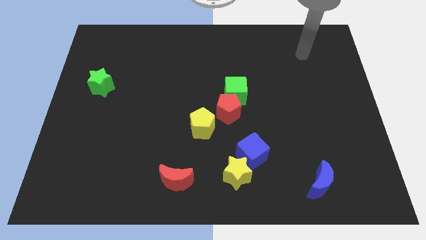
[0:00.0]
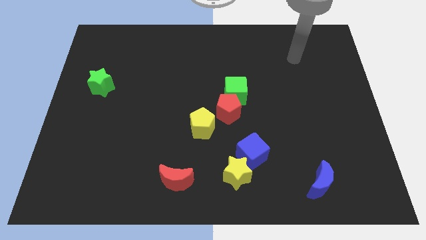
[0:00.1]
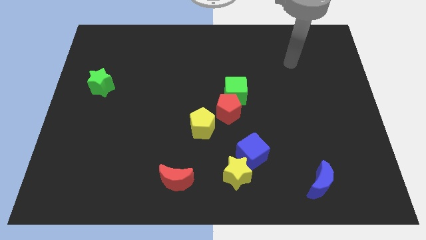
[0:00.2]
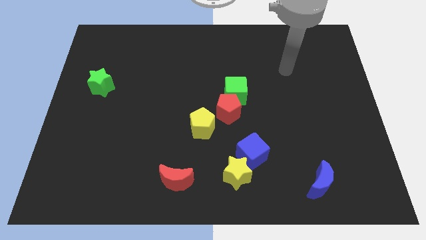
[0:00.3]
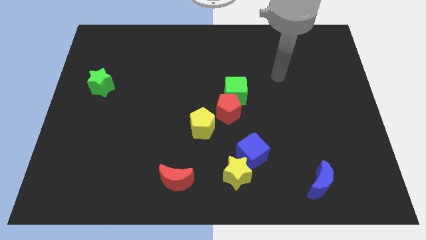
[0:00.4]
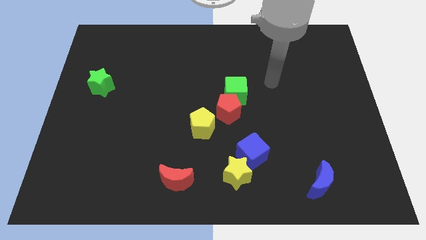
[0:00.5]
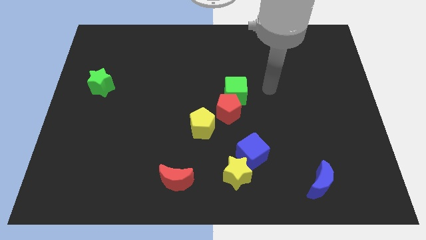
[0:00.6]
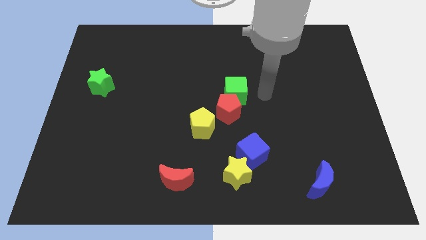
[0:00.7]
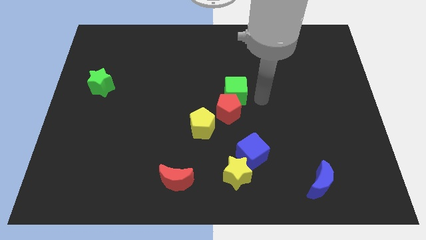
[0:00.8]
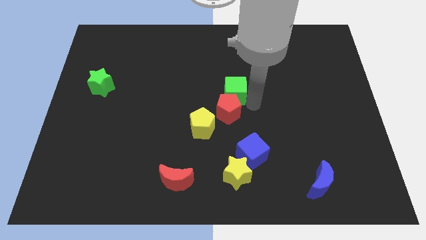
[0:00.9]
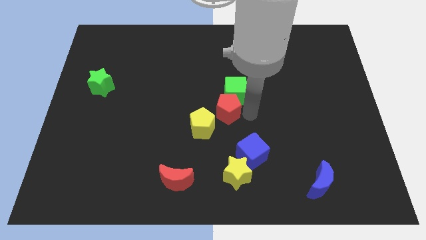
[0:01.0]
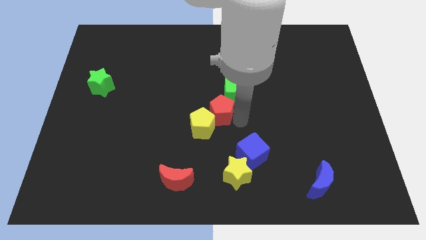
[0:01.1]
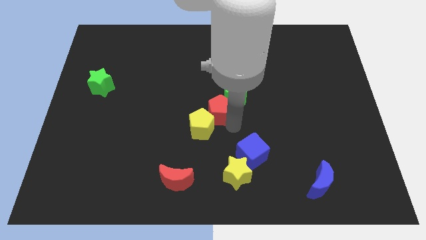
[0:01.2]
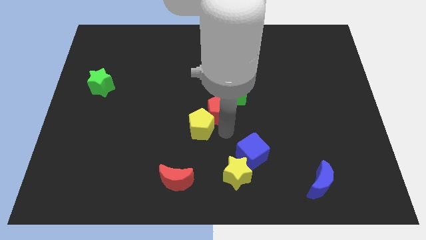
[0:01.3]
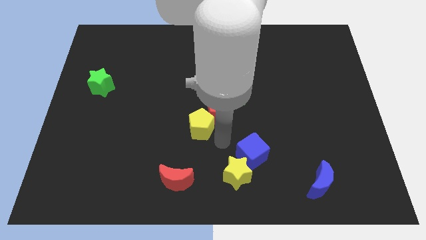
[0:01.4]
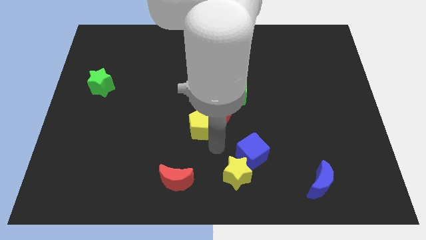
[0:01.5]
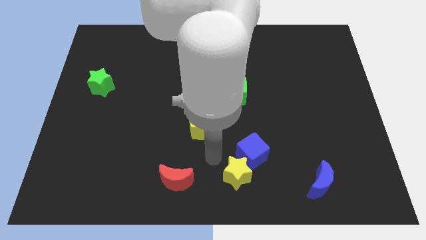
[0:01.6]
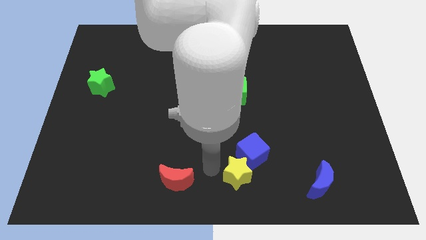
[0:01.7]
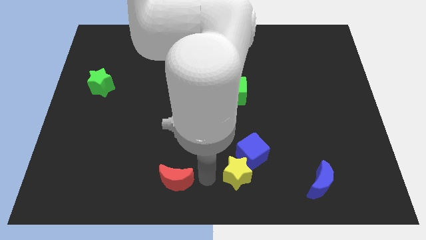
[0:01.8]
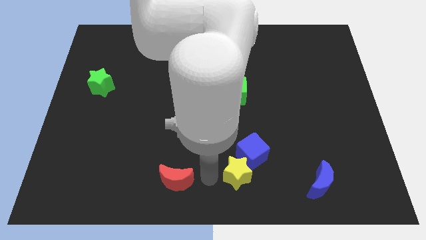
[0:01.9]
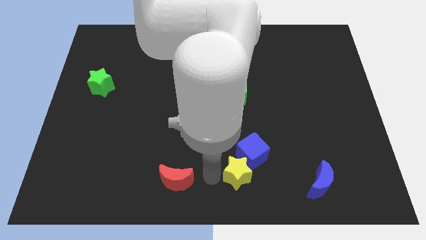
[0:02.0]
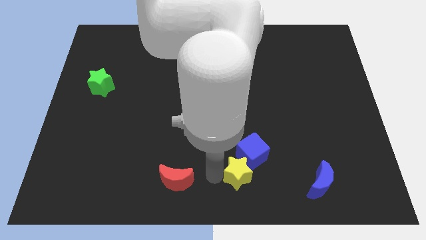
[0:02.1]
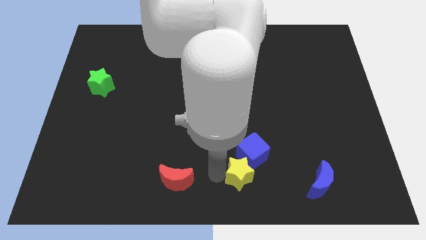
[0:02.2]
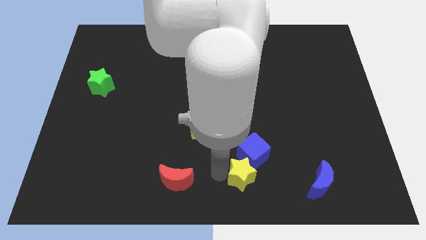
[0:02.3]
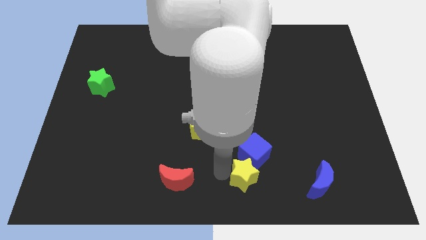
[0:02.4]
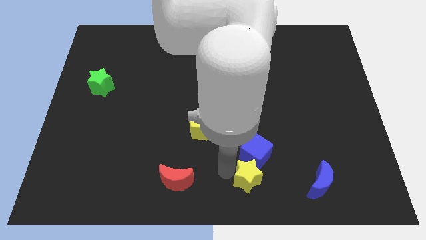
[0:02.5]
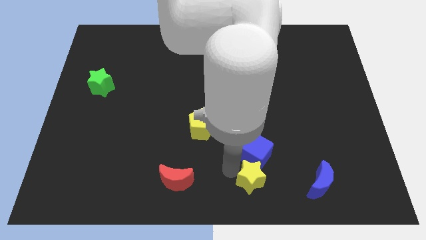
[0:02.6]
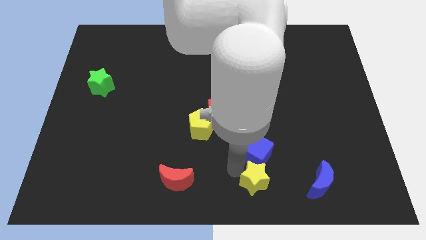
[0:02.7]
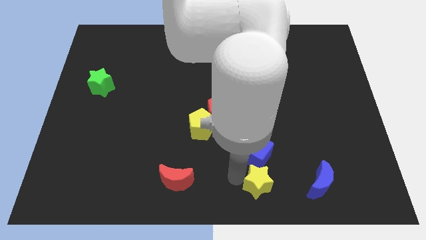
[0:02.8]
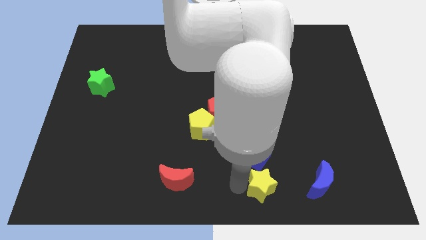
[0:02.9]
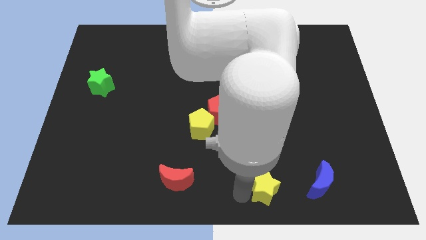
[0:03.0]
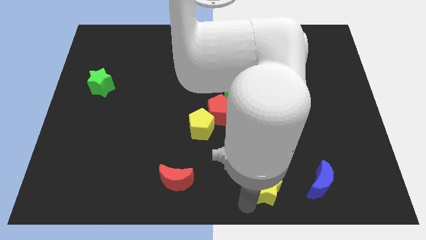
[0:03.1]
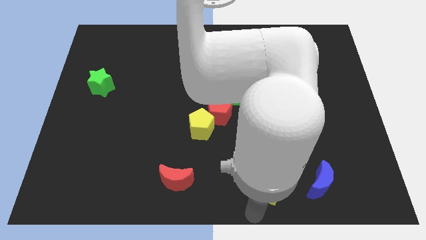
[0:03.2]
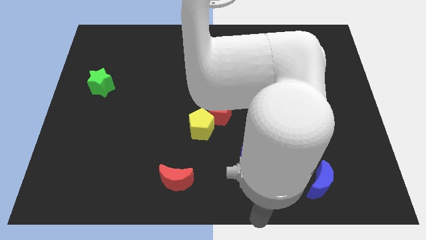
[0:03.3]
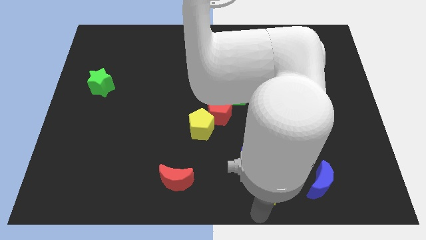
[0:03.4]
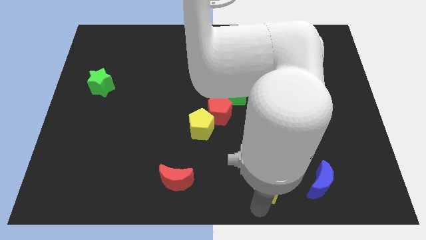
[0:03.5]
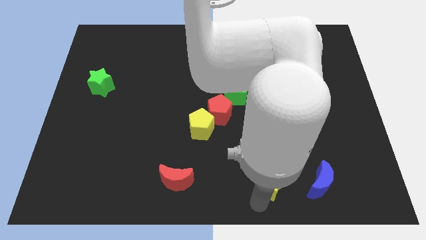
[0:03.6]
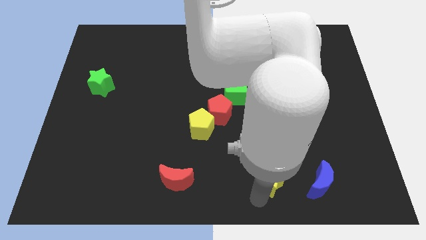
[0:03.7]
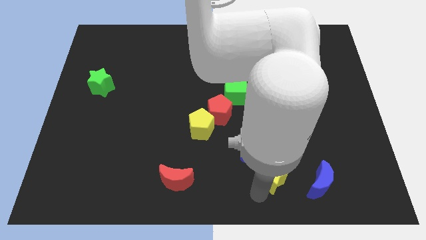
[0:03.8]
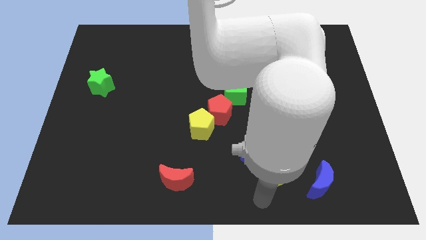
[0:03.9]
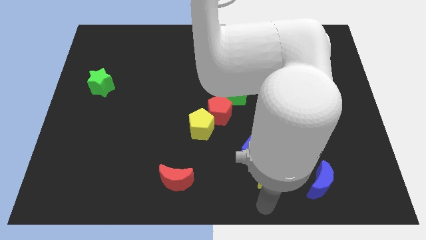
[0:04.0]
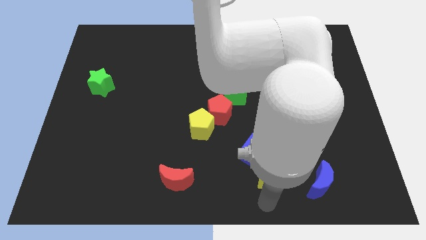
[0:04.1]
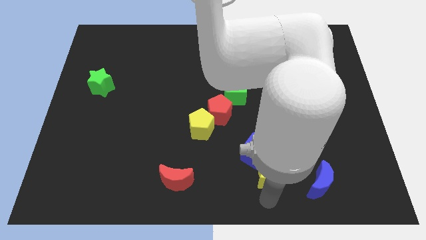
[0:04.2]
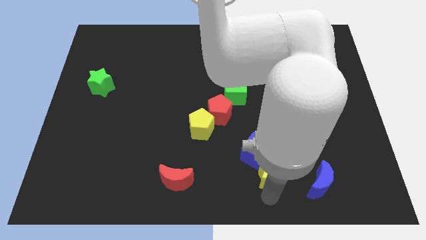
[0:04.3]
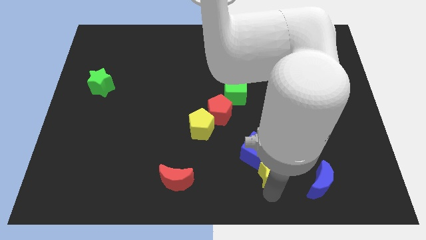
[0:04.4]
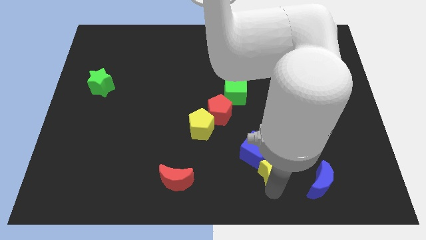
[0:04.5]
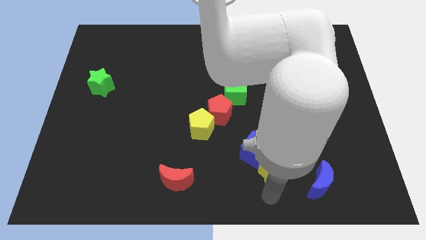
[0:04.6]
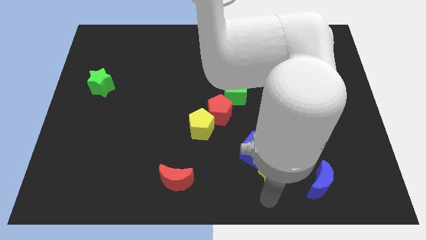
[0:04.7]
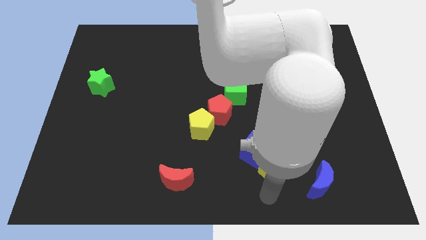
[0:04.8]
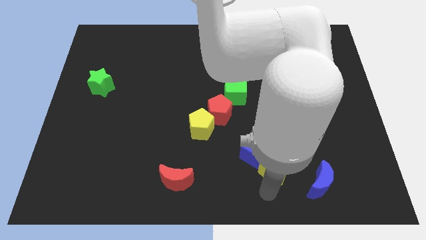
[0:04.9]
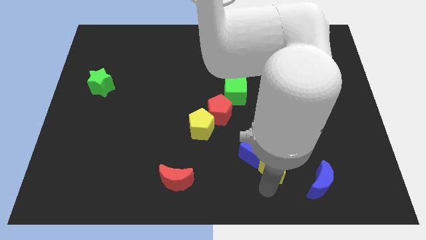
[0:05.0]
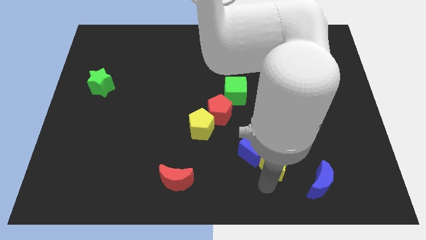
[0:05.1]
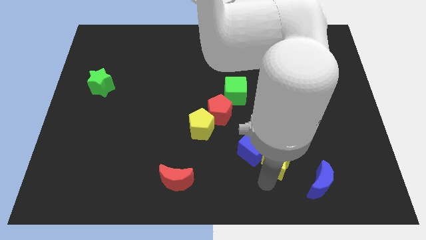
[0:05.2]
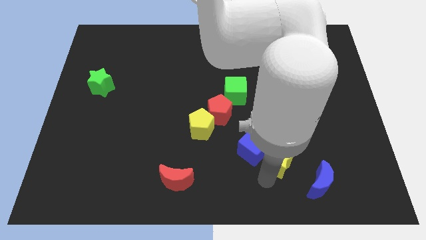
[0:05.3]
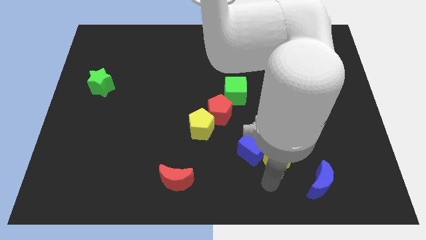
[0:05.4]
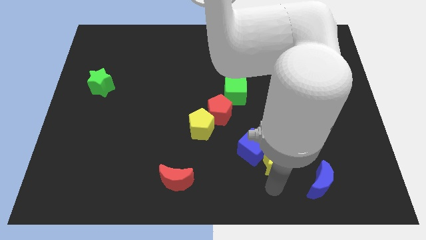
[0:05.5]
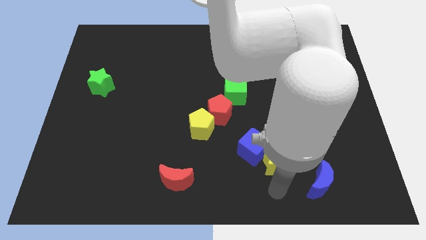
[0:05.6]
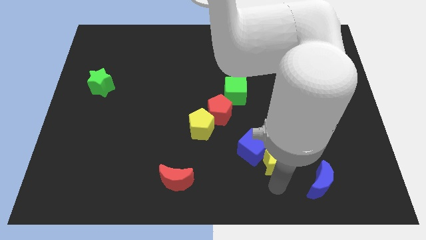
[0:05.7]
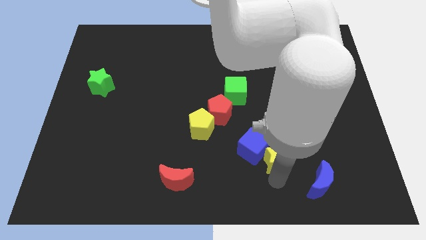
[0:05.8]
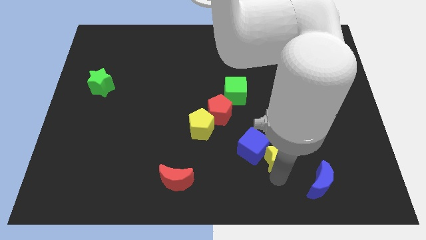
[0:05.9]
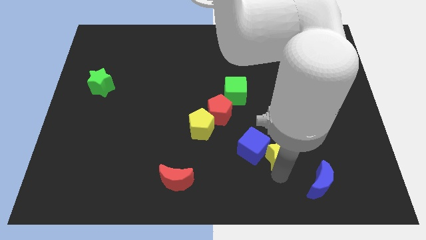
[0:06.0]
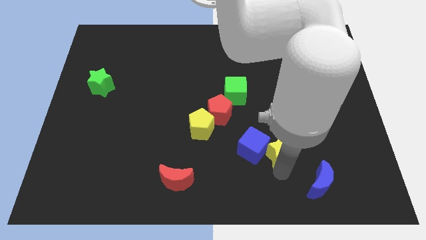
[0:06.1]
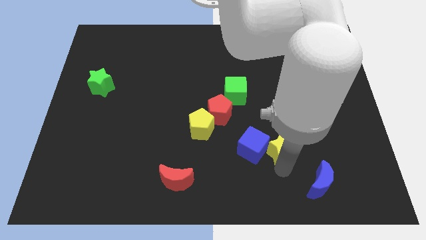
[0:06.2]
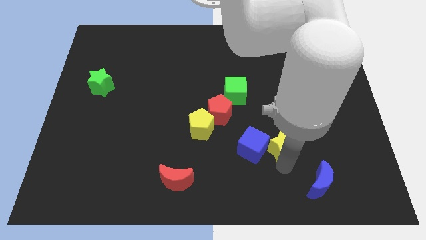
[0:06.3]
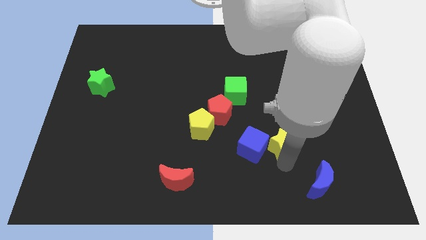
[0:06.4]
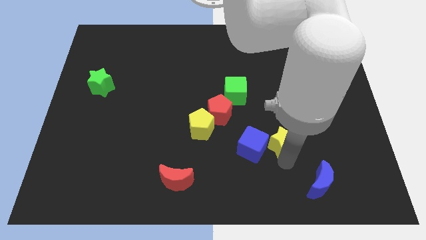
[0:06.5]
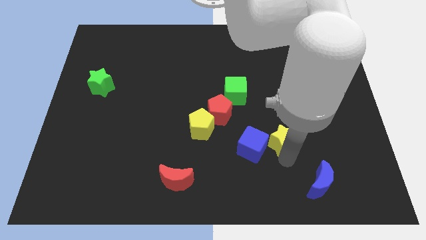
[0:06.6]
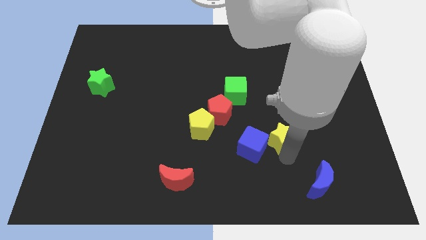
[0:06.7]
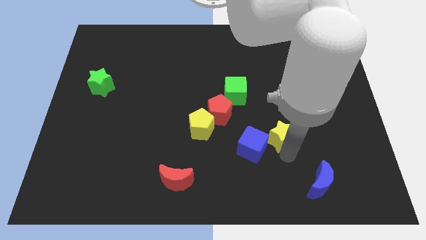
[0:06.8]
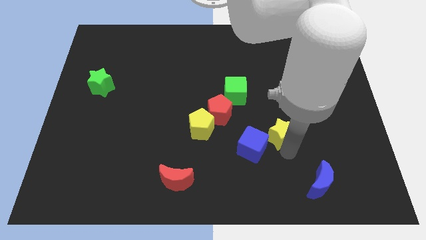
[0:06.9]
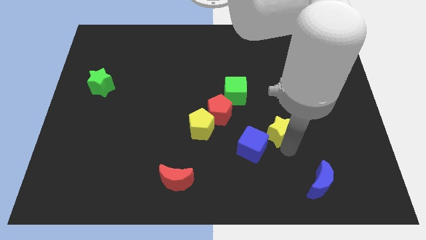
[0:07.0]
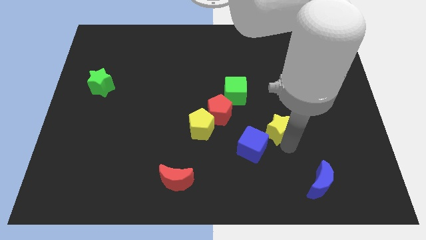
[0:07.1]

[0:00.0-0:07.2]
slide the yellow star right of the red pentagon
